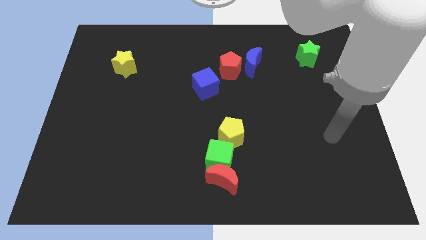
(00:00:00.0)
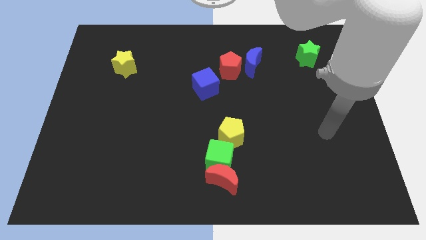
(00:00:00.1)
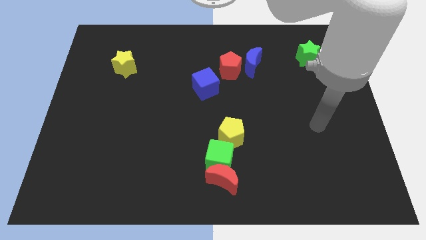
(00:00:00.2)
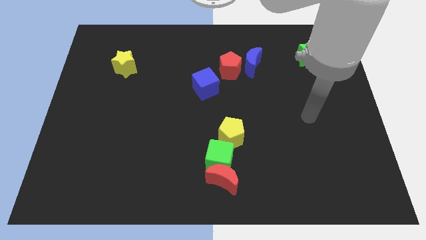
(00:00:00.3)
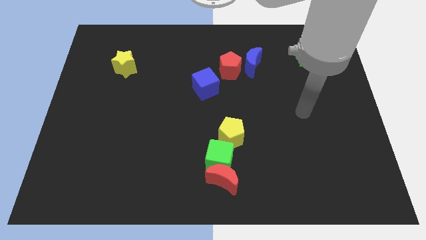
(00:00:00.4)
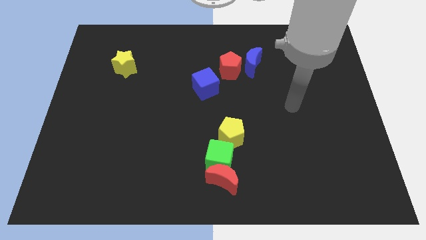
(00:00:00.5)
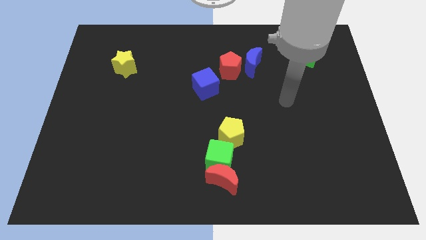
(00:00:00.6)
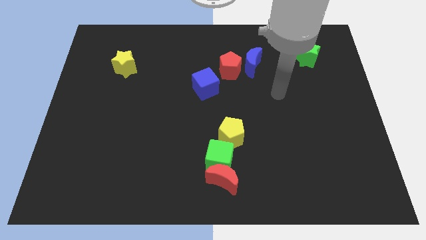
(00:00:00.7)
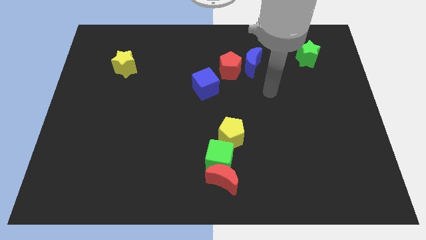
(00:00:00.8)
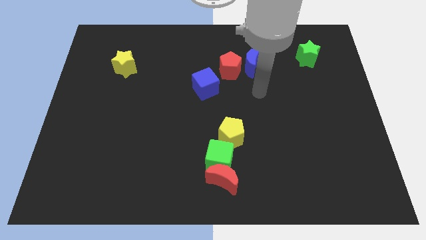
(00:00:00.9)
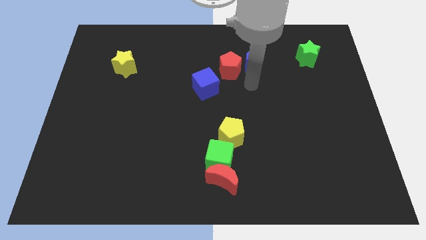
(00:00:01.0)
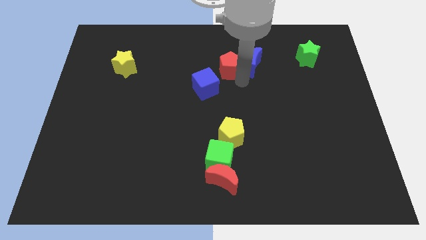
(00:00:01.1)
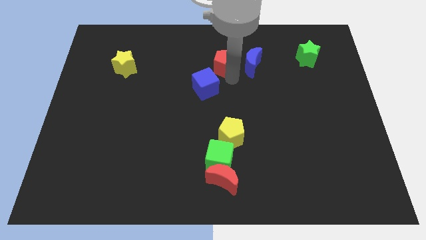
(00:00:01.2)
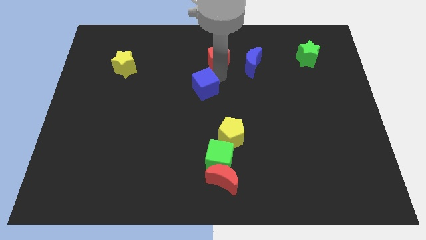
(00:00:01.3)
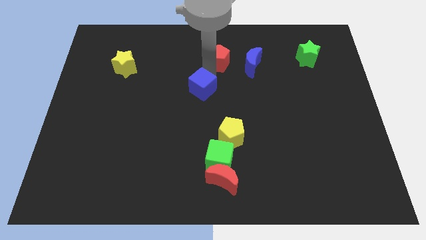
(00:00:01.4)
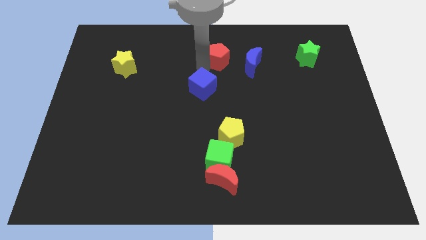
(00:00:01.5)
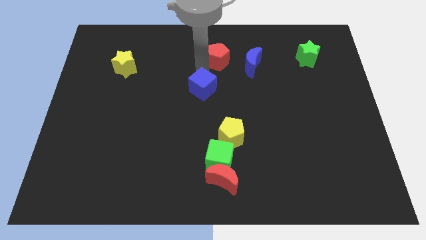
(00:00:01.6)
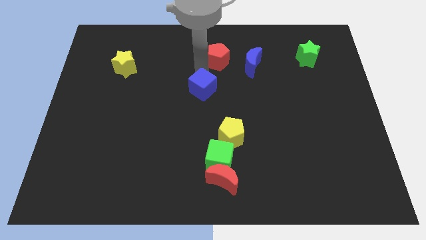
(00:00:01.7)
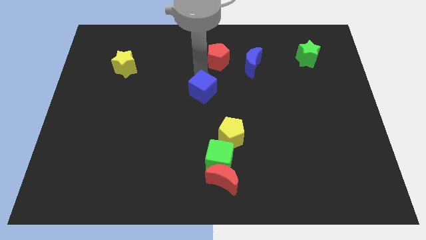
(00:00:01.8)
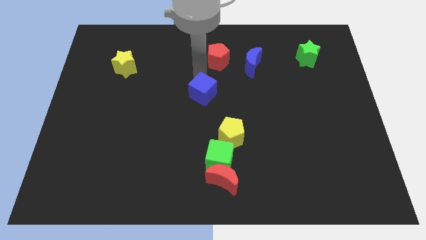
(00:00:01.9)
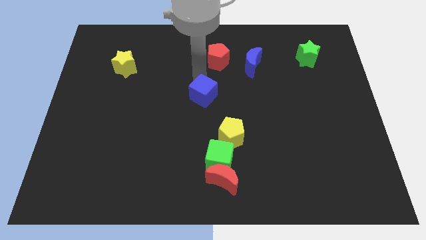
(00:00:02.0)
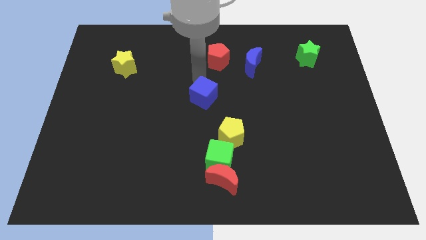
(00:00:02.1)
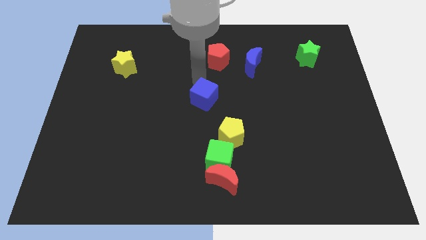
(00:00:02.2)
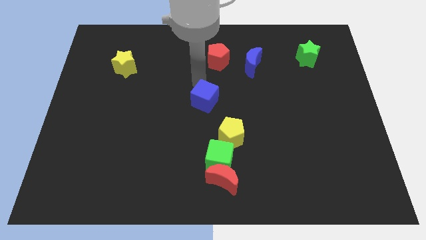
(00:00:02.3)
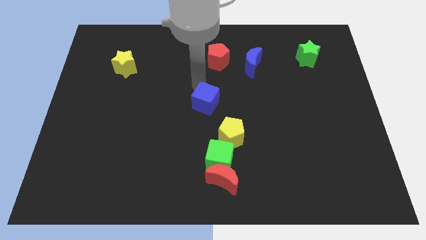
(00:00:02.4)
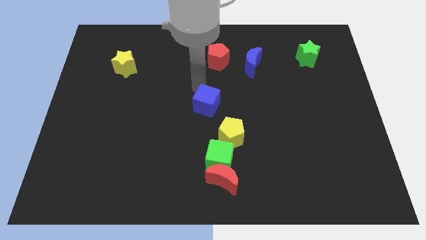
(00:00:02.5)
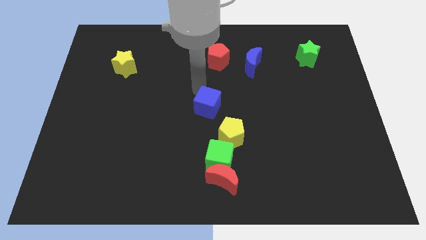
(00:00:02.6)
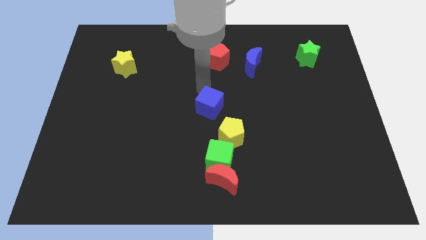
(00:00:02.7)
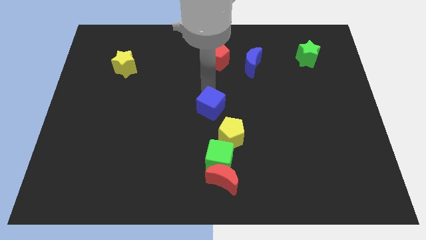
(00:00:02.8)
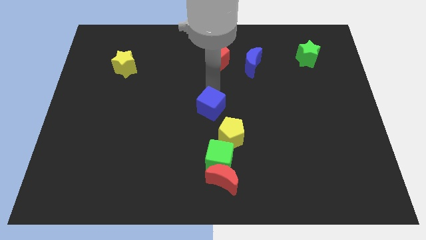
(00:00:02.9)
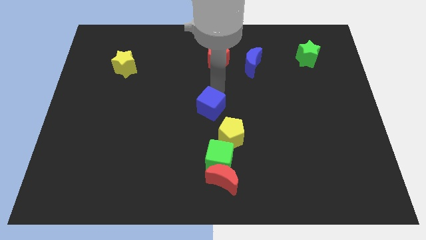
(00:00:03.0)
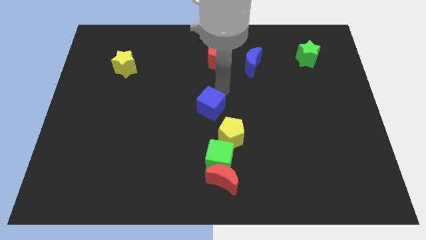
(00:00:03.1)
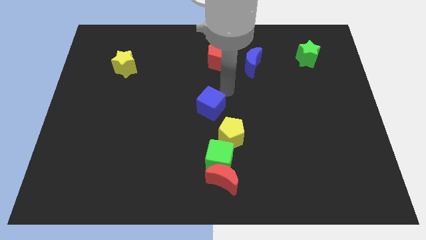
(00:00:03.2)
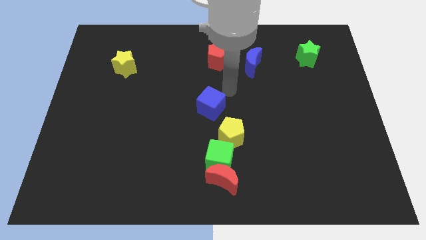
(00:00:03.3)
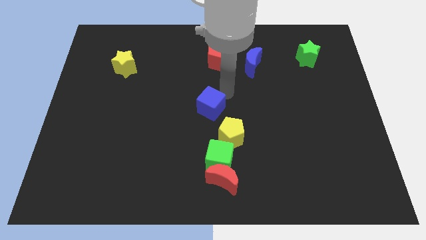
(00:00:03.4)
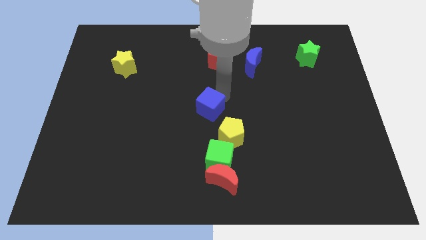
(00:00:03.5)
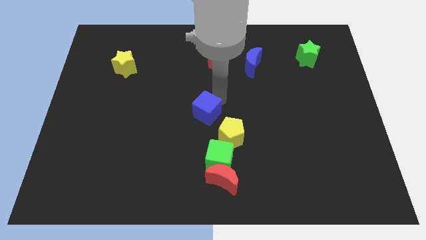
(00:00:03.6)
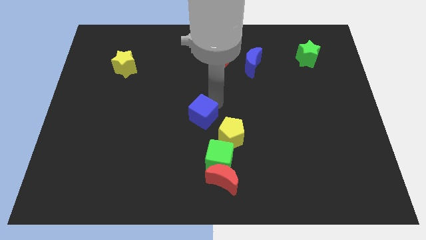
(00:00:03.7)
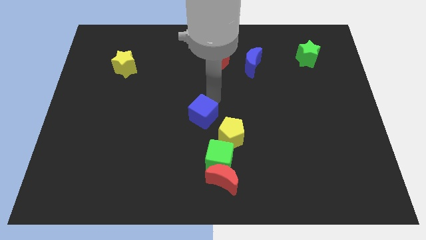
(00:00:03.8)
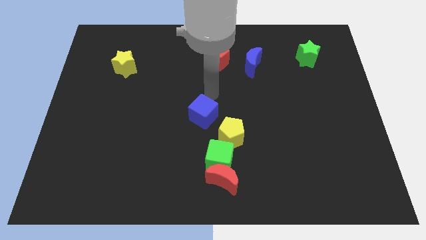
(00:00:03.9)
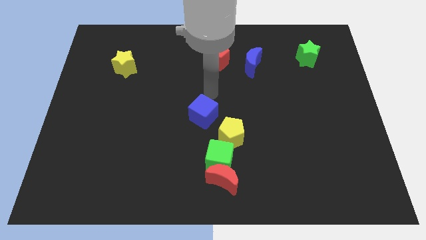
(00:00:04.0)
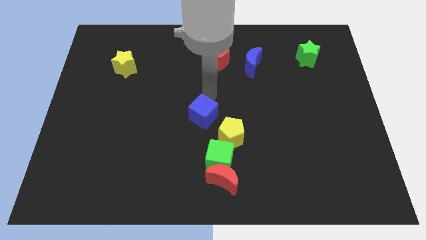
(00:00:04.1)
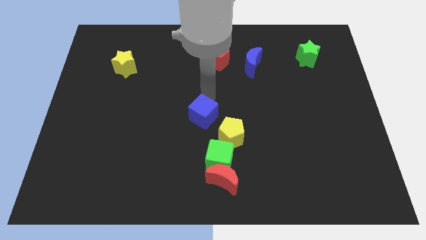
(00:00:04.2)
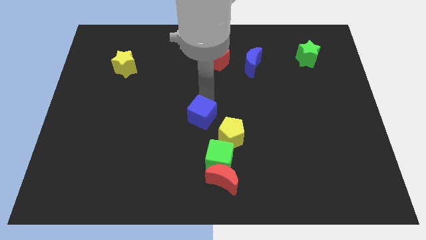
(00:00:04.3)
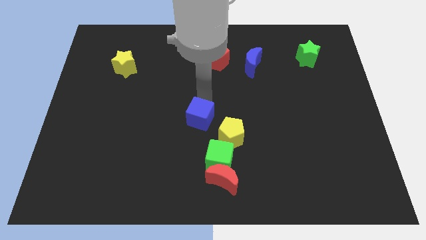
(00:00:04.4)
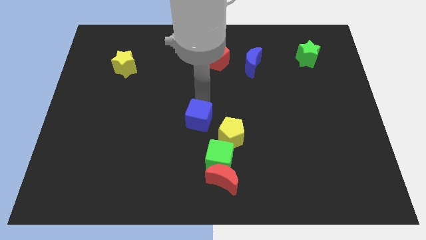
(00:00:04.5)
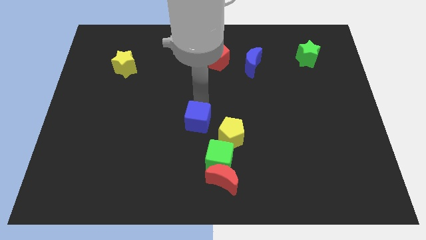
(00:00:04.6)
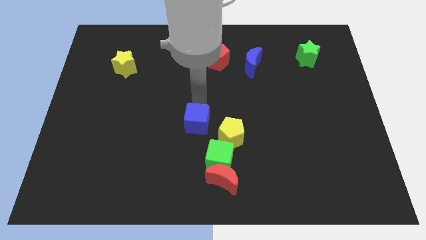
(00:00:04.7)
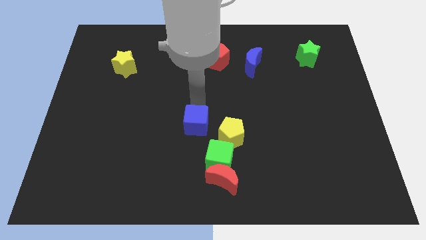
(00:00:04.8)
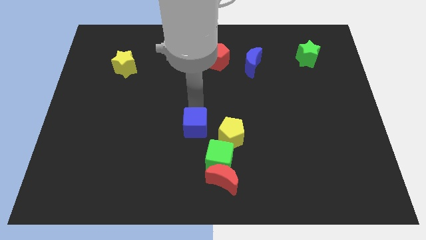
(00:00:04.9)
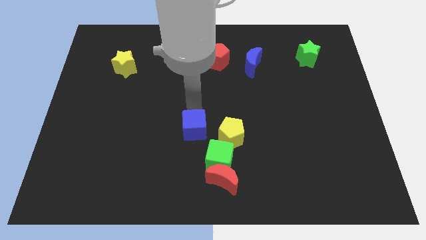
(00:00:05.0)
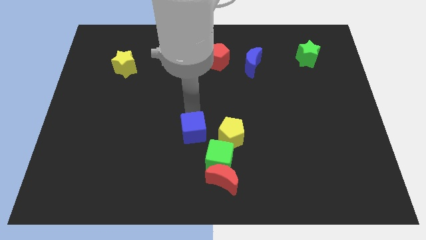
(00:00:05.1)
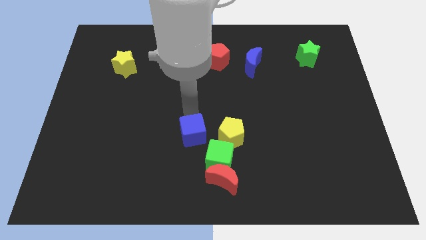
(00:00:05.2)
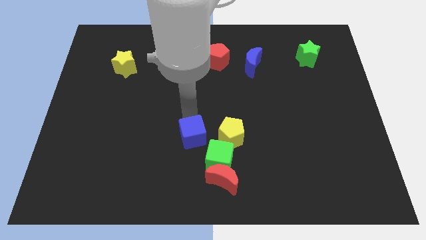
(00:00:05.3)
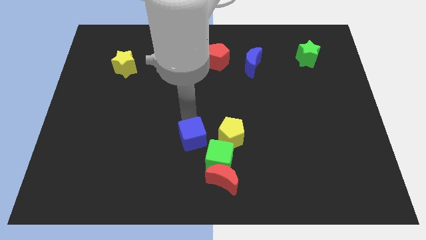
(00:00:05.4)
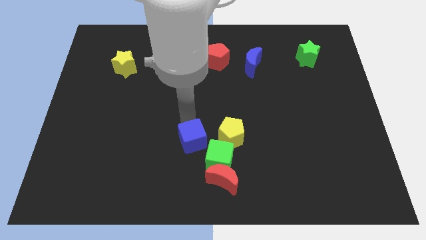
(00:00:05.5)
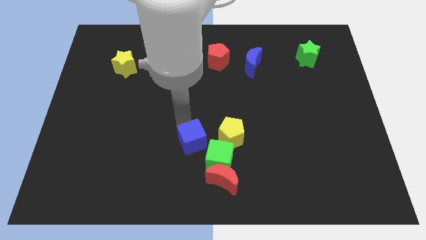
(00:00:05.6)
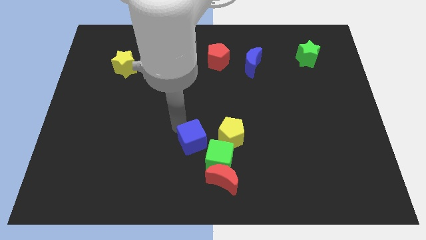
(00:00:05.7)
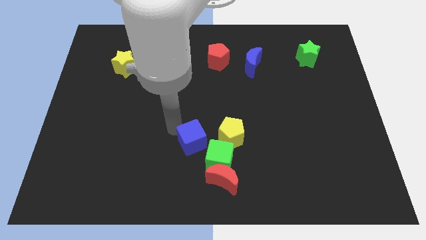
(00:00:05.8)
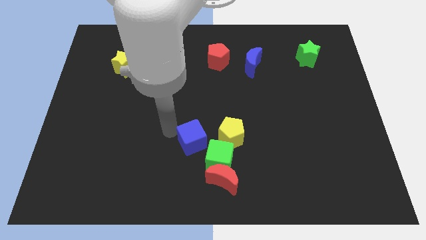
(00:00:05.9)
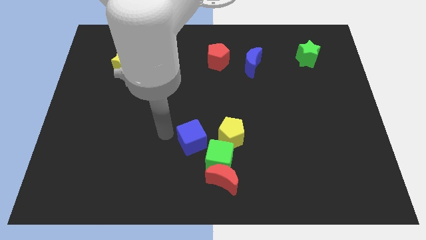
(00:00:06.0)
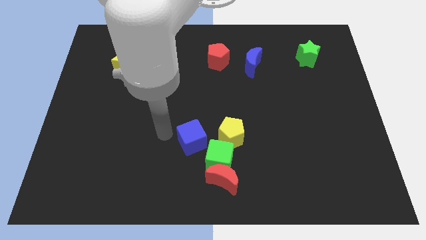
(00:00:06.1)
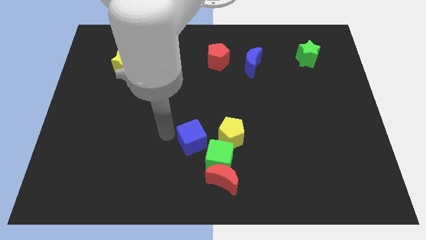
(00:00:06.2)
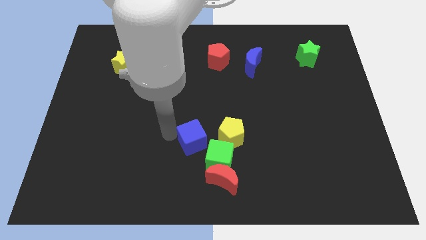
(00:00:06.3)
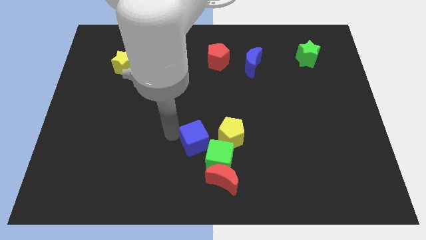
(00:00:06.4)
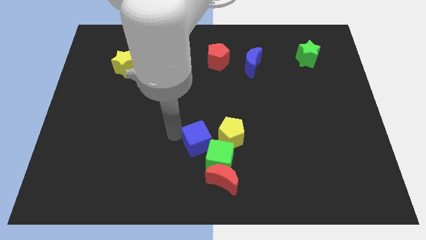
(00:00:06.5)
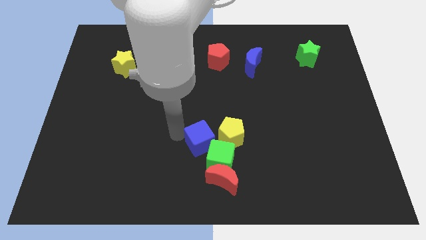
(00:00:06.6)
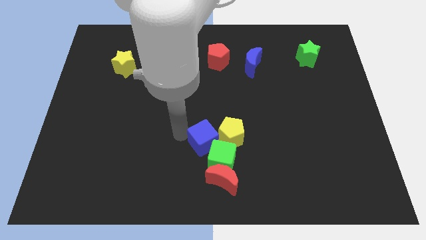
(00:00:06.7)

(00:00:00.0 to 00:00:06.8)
push the blue cube towards the green cube

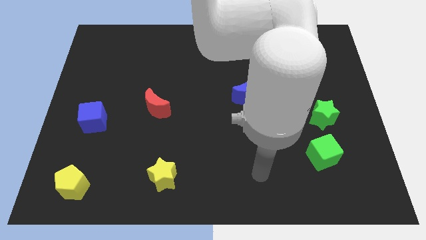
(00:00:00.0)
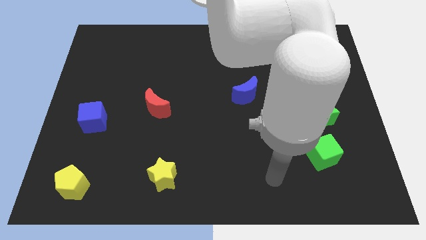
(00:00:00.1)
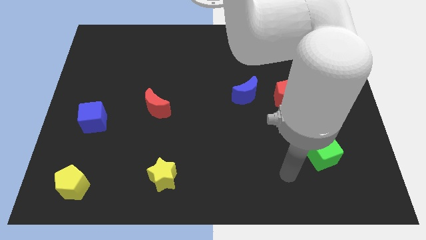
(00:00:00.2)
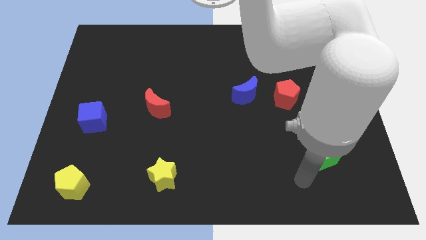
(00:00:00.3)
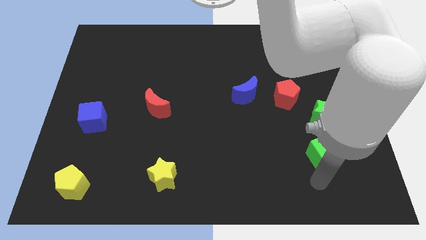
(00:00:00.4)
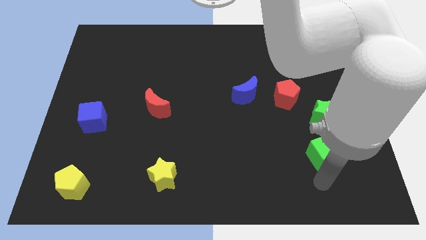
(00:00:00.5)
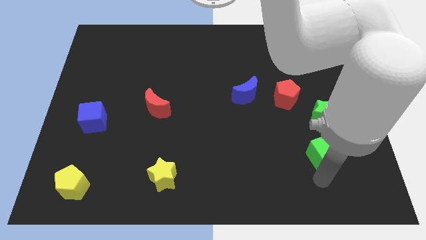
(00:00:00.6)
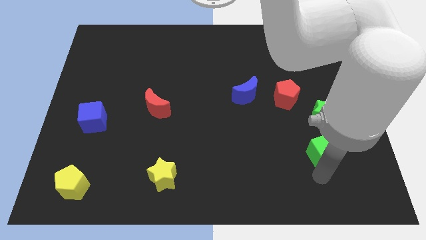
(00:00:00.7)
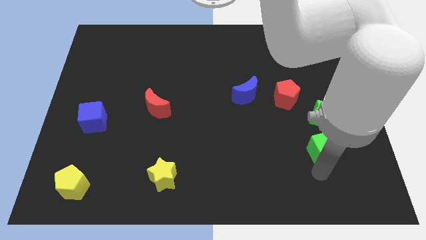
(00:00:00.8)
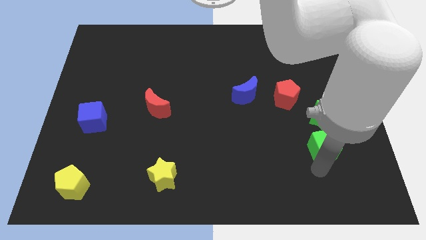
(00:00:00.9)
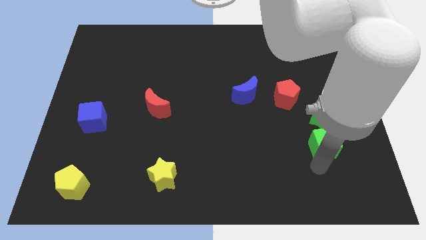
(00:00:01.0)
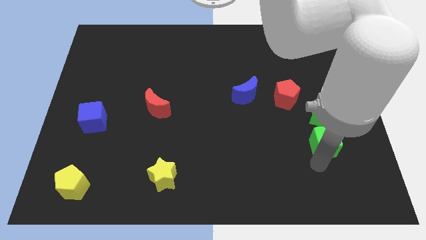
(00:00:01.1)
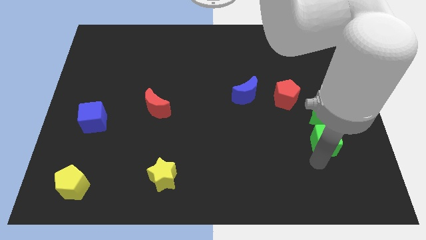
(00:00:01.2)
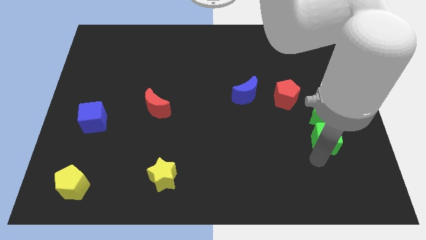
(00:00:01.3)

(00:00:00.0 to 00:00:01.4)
push the green cube next to the green star

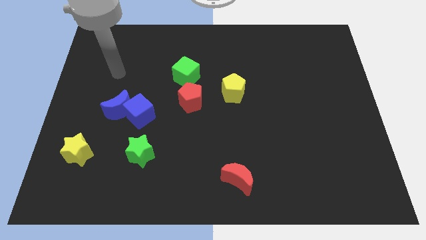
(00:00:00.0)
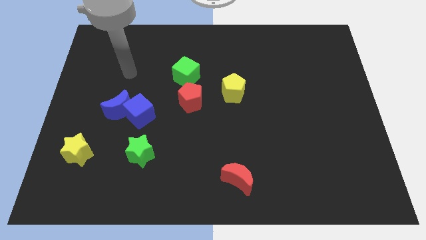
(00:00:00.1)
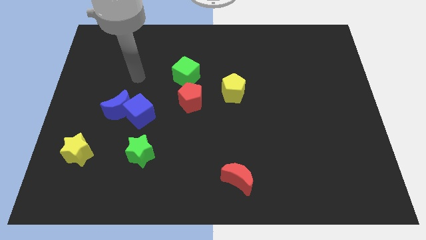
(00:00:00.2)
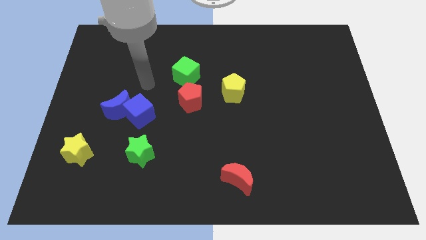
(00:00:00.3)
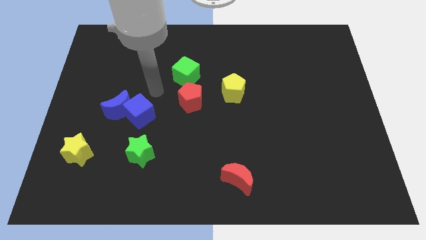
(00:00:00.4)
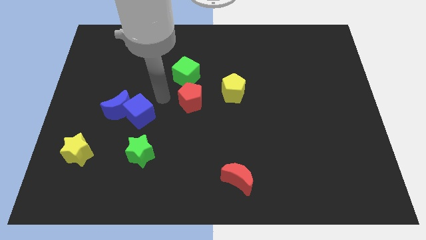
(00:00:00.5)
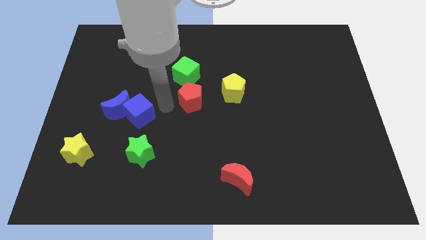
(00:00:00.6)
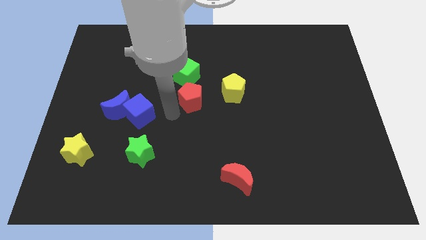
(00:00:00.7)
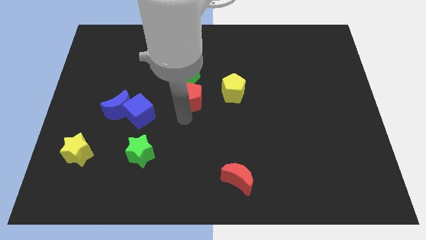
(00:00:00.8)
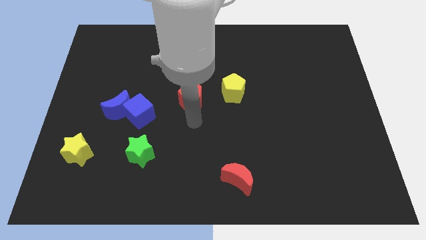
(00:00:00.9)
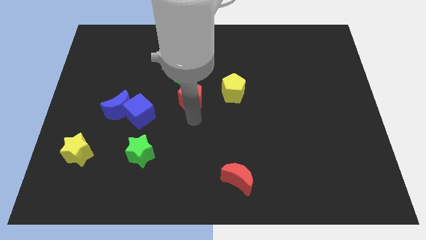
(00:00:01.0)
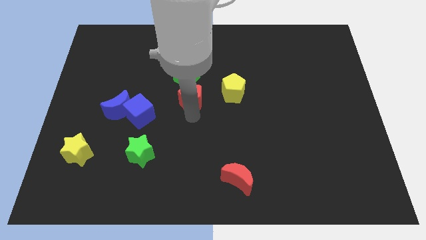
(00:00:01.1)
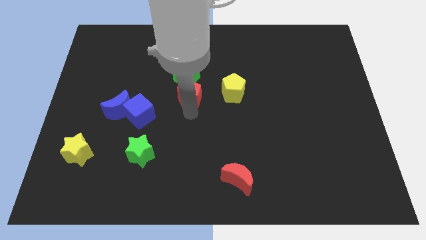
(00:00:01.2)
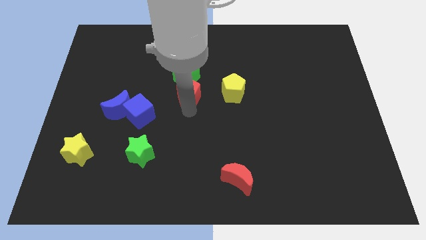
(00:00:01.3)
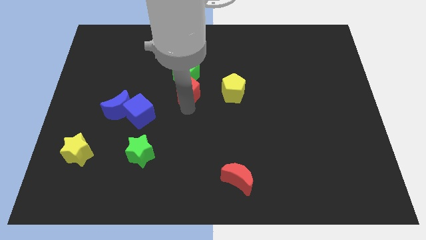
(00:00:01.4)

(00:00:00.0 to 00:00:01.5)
slide the red pentagon close to the green cube
